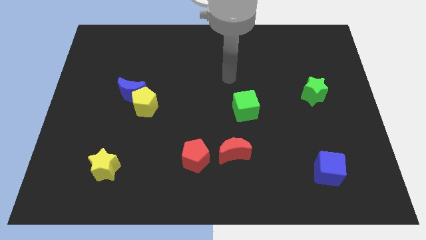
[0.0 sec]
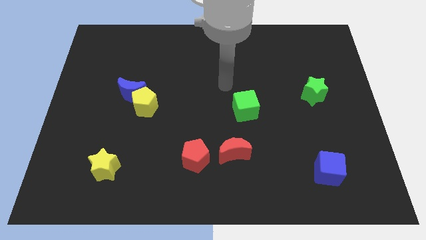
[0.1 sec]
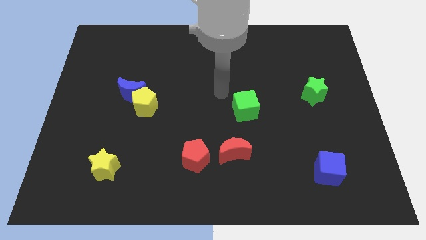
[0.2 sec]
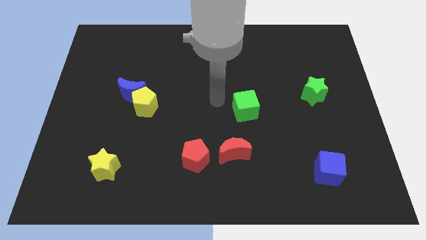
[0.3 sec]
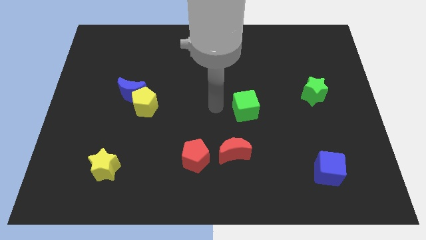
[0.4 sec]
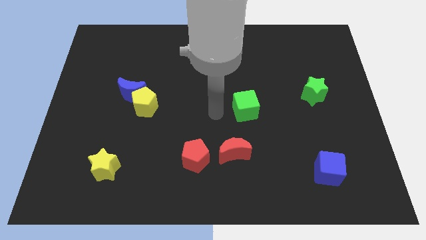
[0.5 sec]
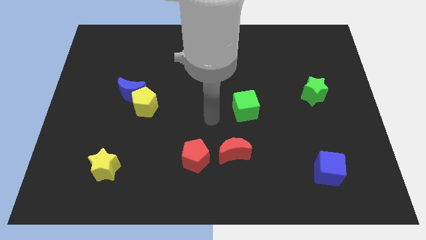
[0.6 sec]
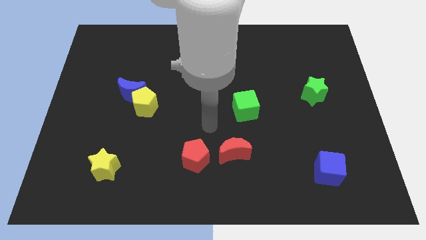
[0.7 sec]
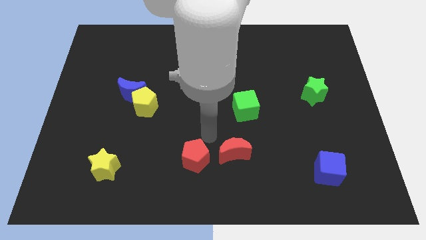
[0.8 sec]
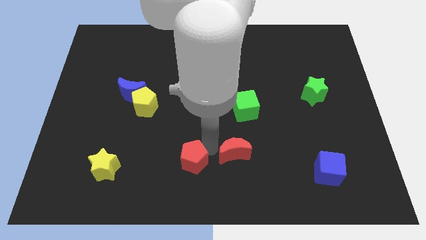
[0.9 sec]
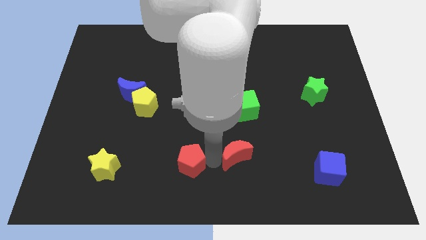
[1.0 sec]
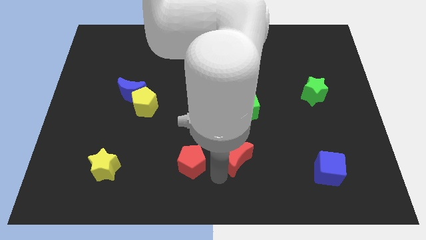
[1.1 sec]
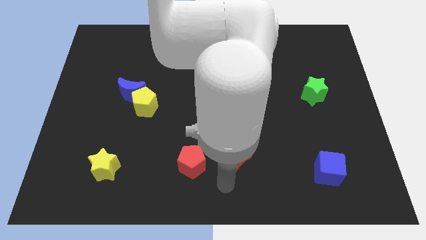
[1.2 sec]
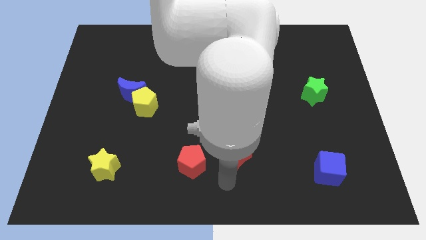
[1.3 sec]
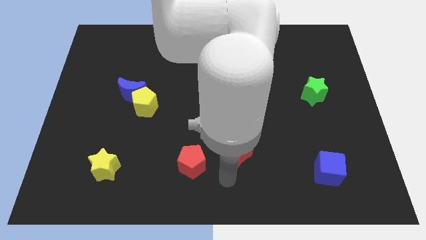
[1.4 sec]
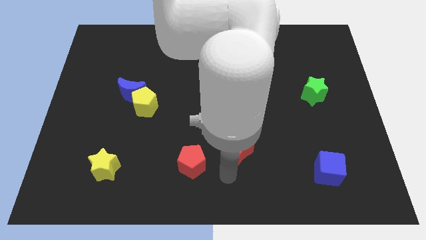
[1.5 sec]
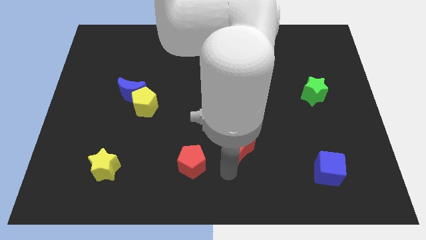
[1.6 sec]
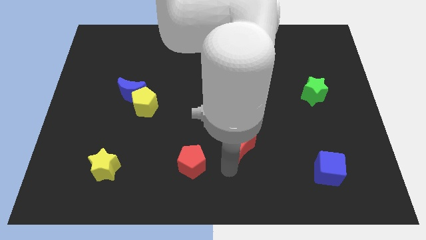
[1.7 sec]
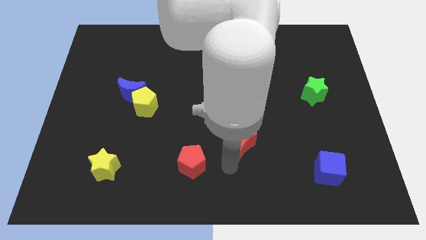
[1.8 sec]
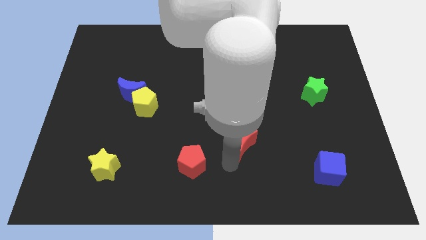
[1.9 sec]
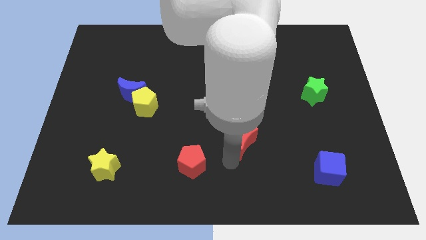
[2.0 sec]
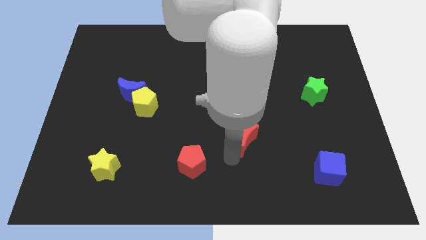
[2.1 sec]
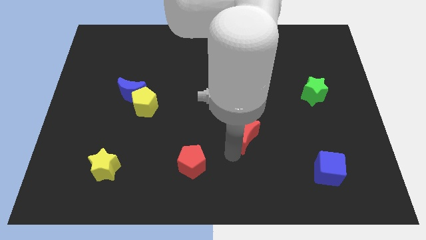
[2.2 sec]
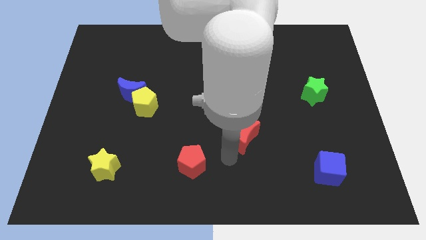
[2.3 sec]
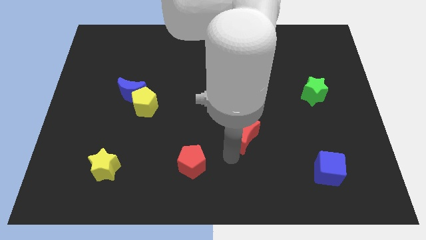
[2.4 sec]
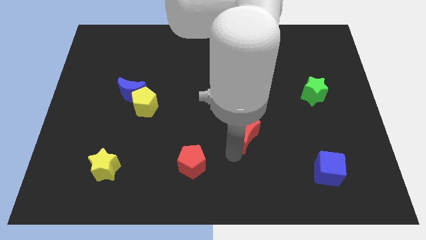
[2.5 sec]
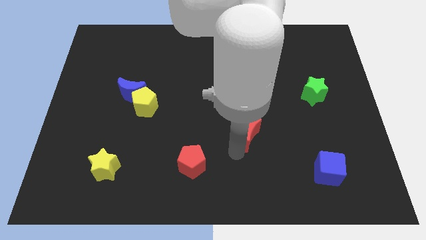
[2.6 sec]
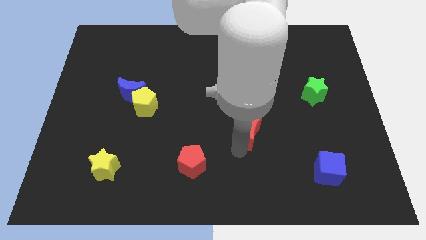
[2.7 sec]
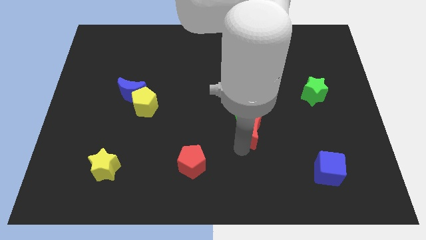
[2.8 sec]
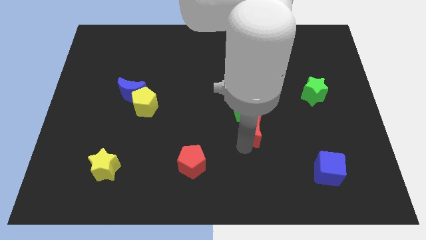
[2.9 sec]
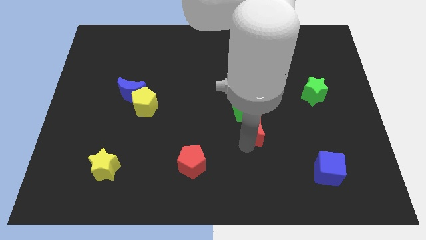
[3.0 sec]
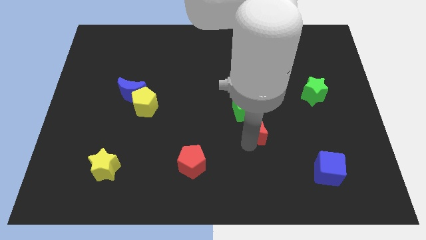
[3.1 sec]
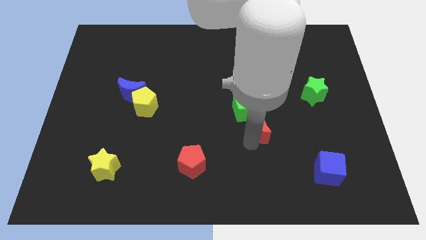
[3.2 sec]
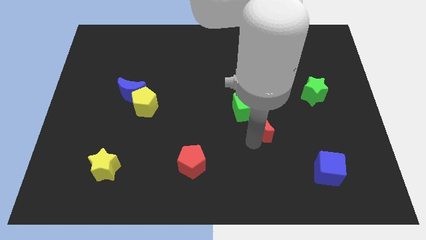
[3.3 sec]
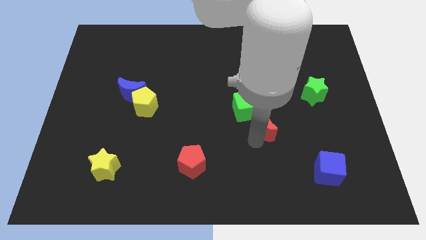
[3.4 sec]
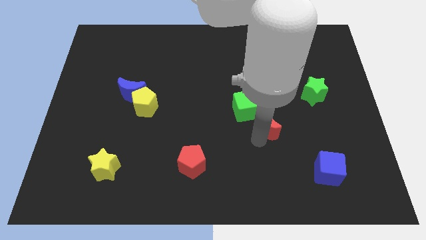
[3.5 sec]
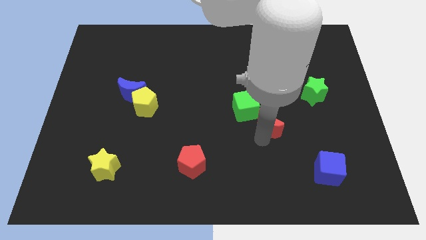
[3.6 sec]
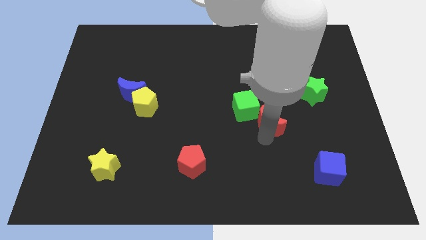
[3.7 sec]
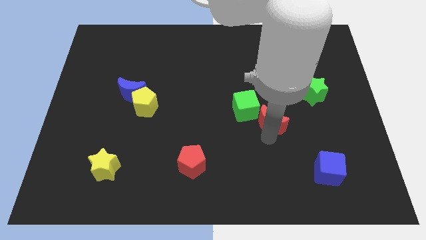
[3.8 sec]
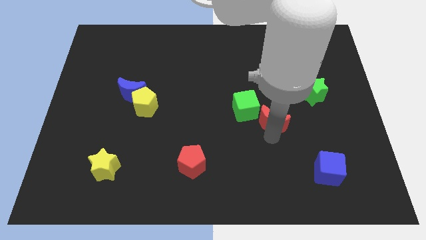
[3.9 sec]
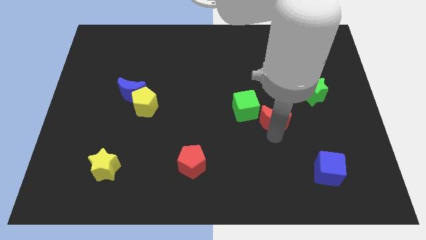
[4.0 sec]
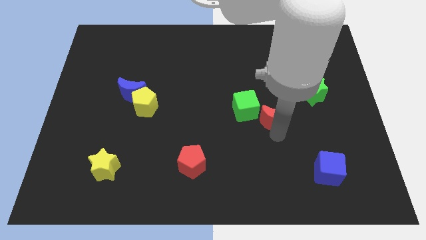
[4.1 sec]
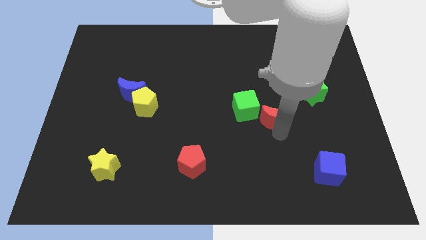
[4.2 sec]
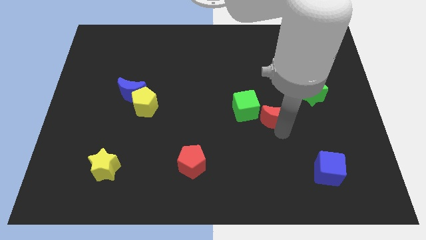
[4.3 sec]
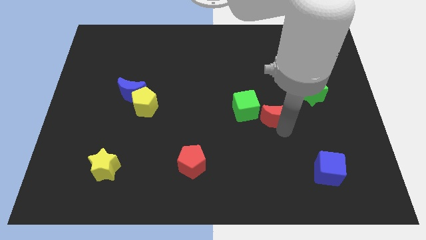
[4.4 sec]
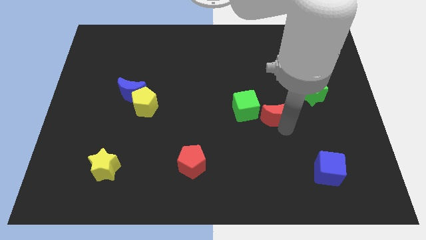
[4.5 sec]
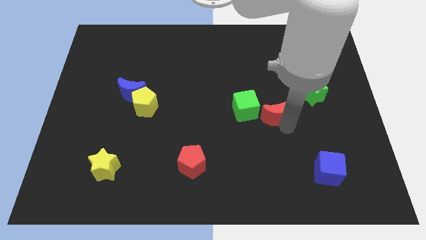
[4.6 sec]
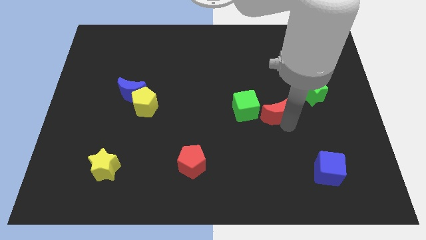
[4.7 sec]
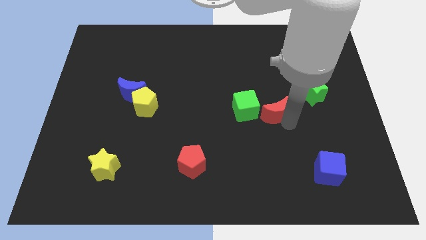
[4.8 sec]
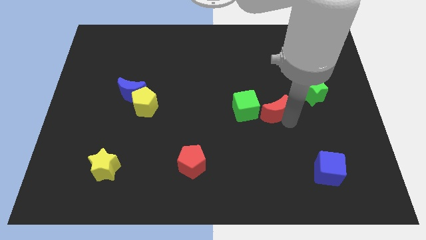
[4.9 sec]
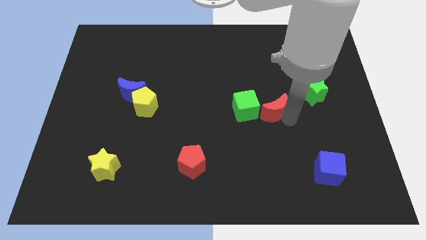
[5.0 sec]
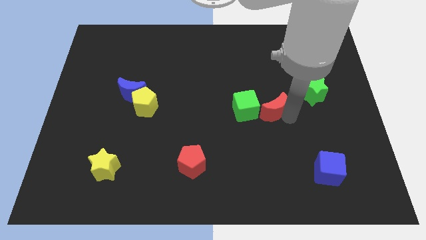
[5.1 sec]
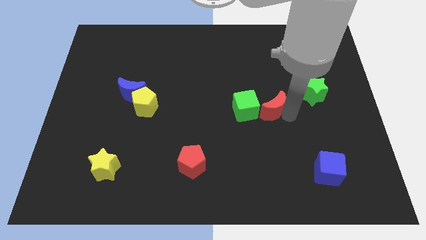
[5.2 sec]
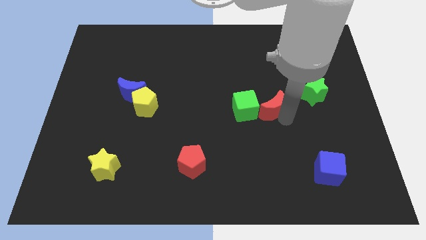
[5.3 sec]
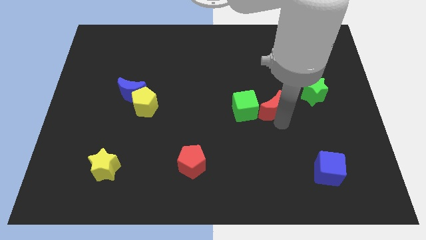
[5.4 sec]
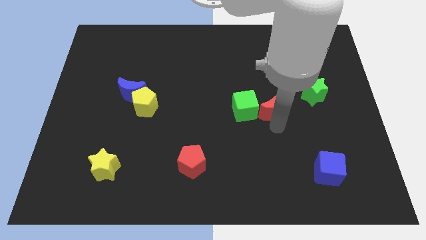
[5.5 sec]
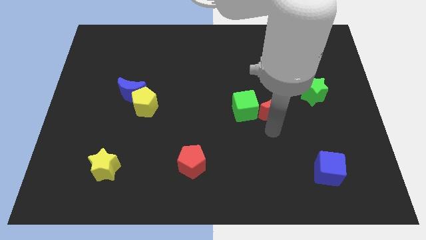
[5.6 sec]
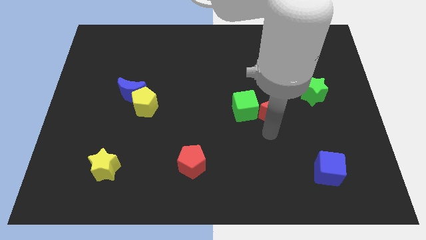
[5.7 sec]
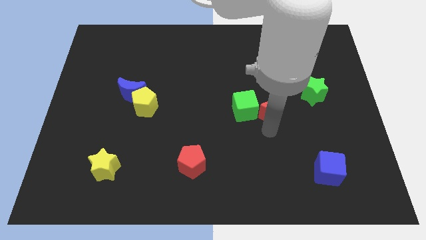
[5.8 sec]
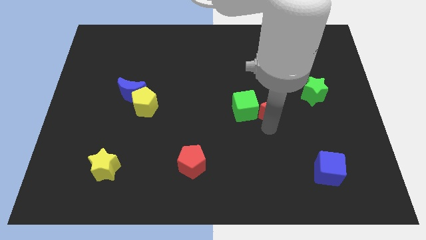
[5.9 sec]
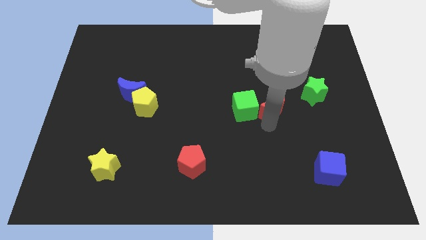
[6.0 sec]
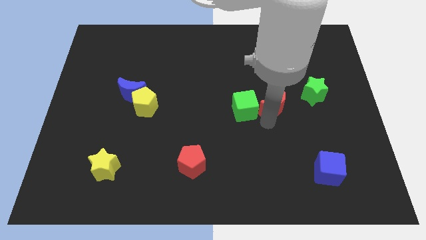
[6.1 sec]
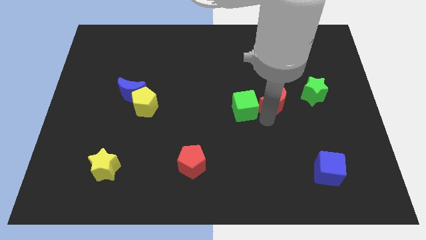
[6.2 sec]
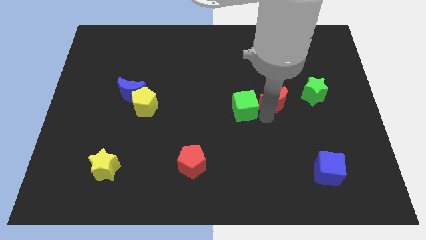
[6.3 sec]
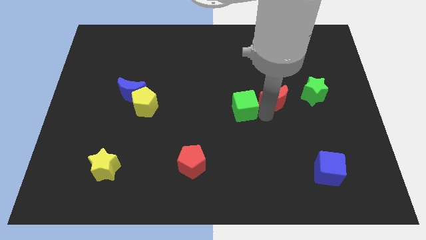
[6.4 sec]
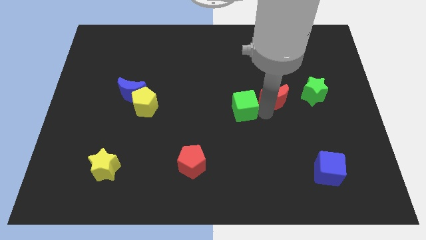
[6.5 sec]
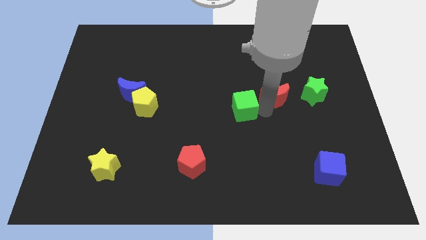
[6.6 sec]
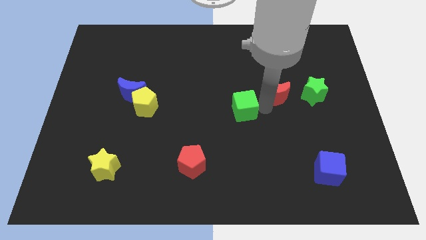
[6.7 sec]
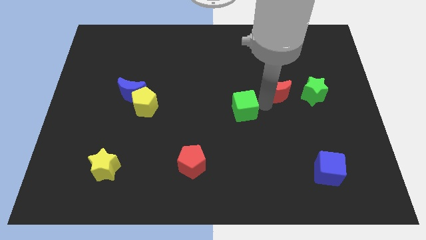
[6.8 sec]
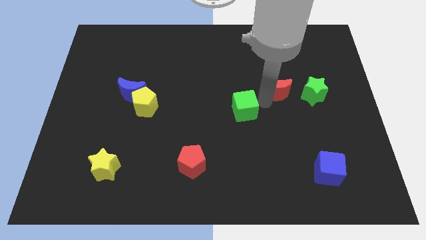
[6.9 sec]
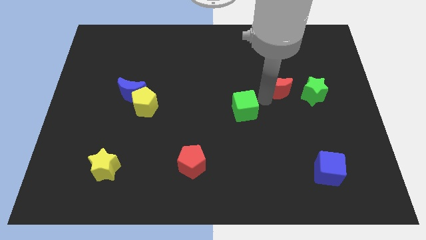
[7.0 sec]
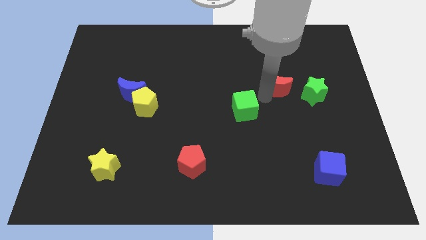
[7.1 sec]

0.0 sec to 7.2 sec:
slide the red moon up and to the right diagonally

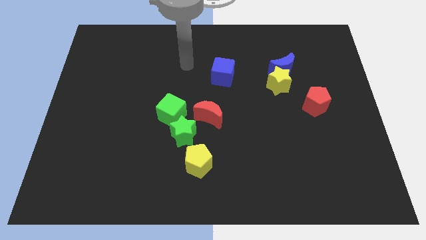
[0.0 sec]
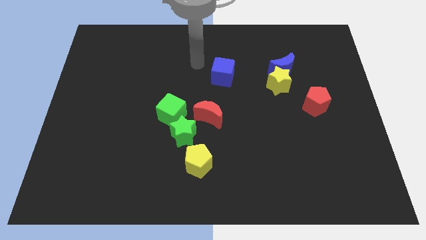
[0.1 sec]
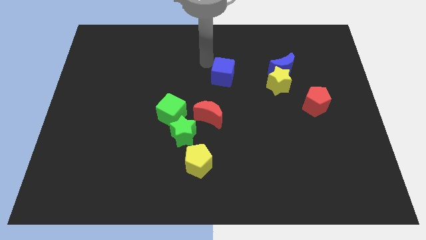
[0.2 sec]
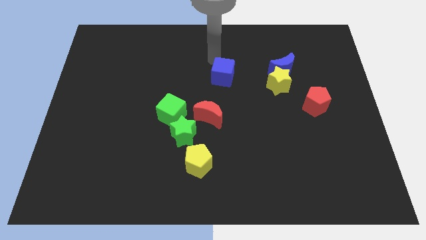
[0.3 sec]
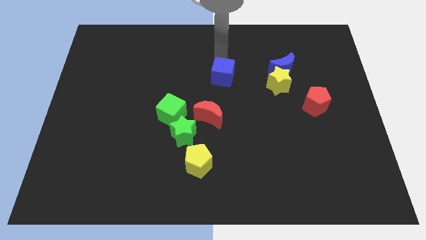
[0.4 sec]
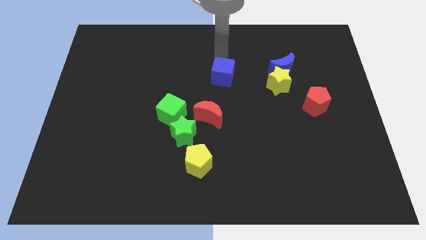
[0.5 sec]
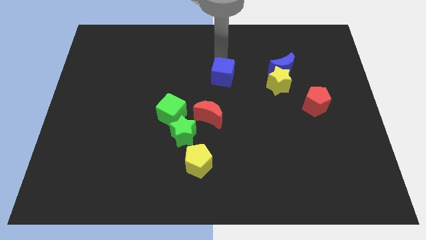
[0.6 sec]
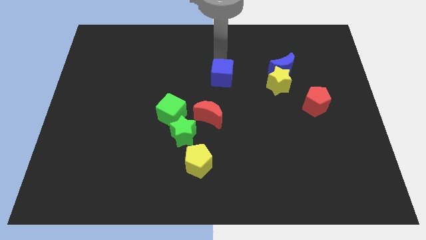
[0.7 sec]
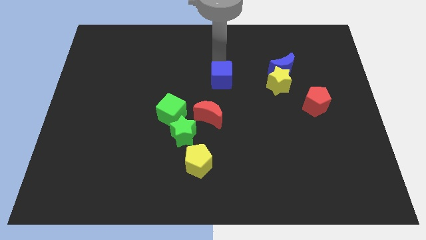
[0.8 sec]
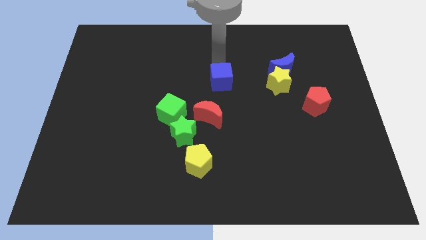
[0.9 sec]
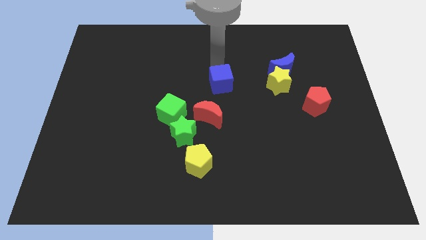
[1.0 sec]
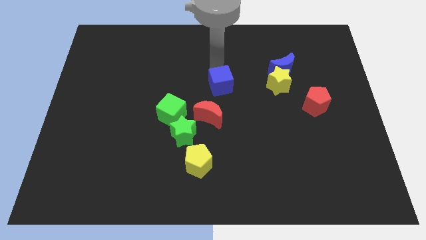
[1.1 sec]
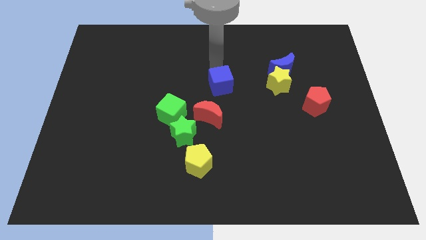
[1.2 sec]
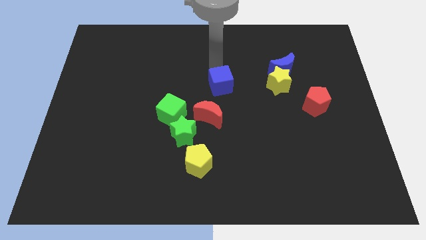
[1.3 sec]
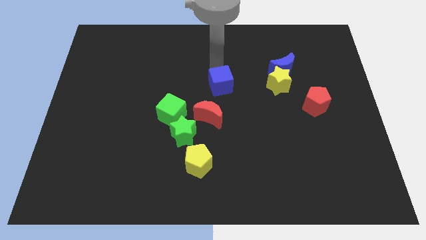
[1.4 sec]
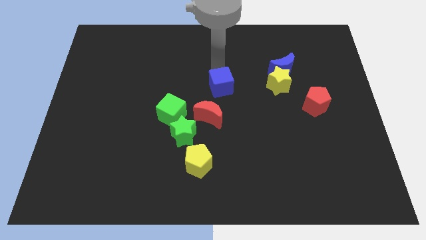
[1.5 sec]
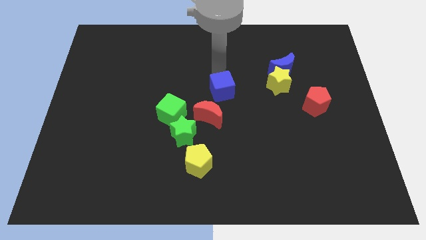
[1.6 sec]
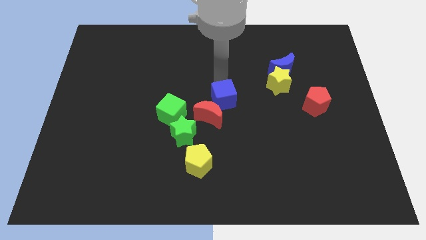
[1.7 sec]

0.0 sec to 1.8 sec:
push the blue cube a bit down
